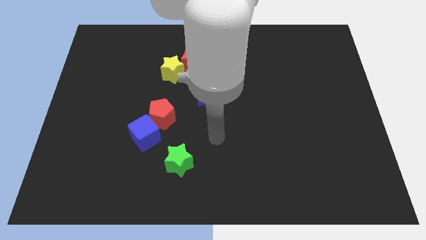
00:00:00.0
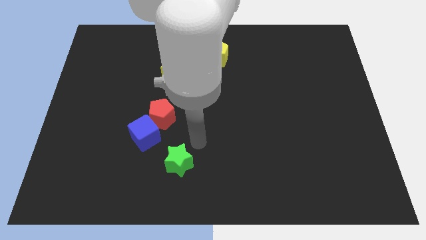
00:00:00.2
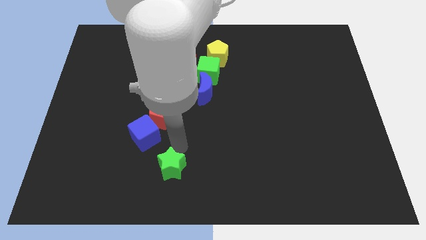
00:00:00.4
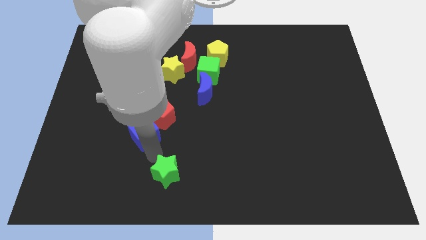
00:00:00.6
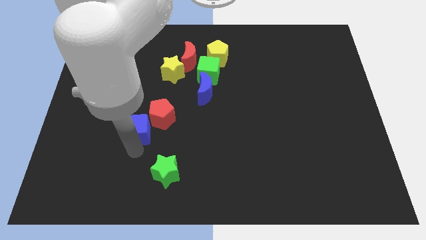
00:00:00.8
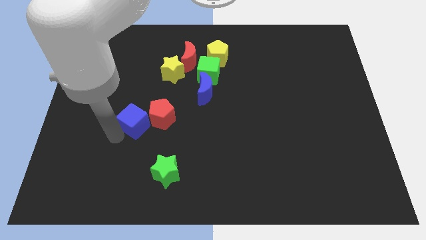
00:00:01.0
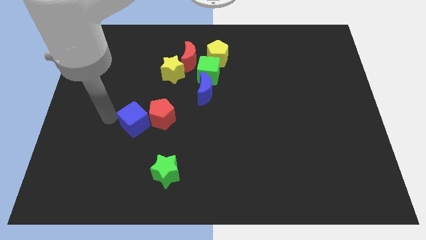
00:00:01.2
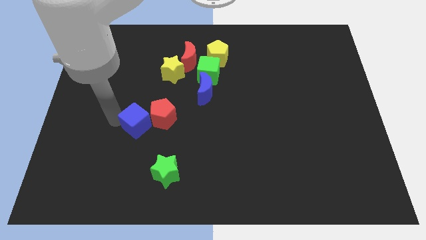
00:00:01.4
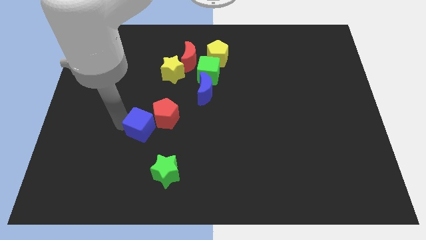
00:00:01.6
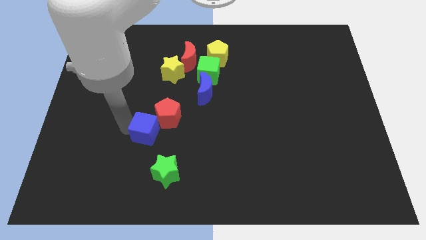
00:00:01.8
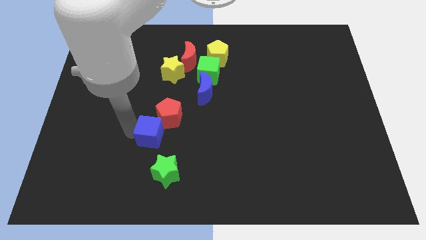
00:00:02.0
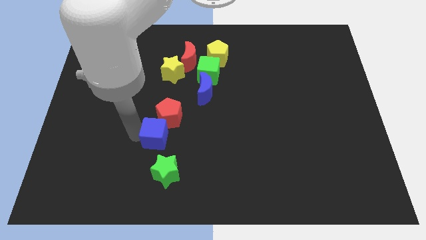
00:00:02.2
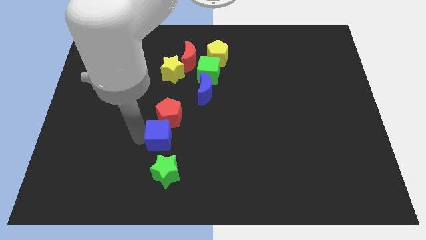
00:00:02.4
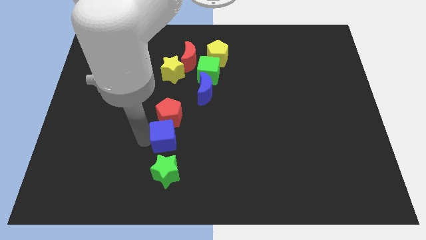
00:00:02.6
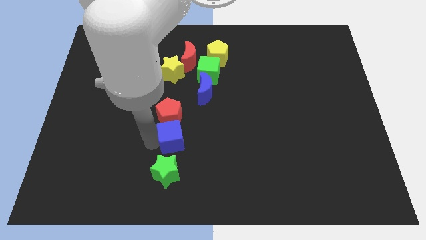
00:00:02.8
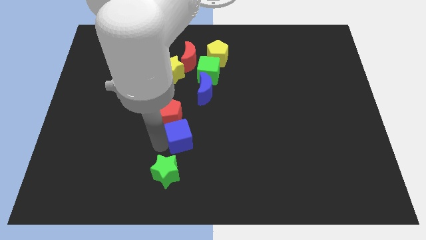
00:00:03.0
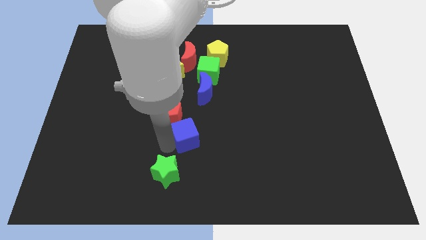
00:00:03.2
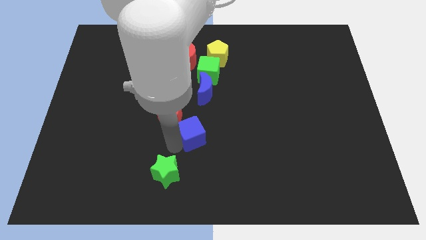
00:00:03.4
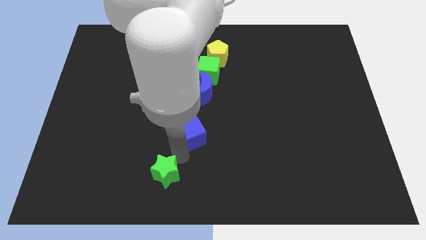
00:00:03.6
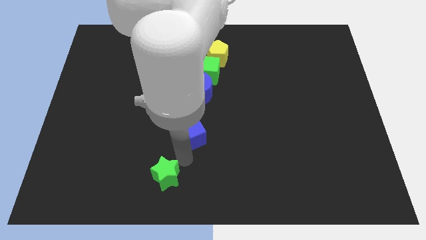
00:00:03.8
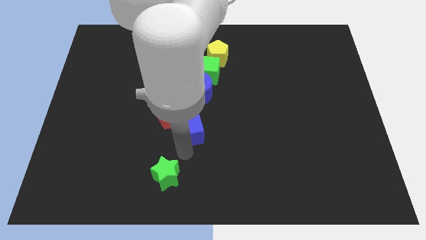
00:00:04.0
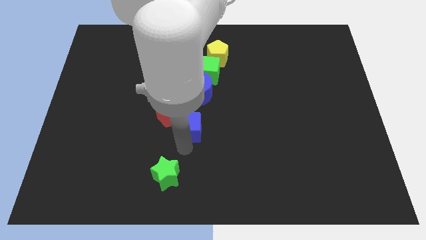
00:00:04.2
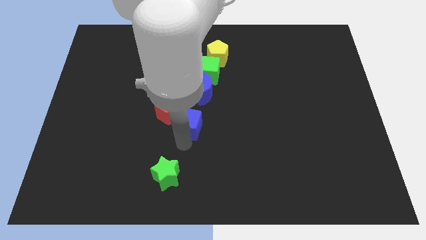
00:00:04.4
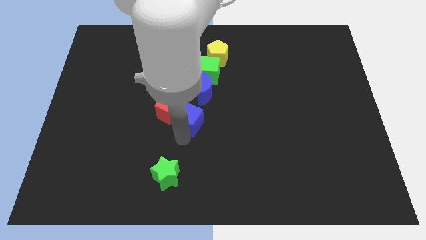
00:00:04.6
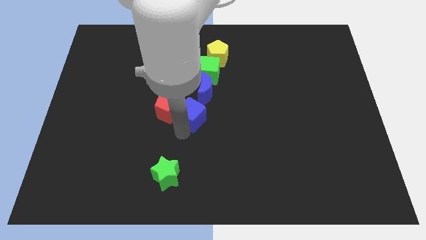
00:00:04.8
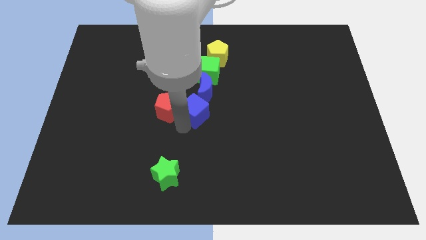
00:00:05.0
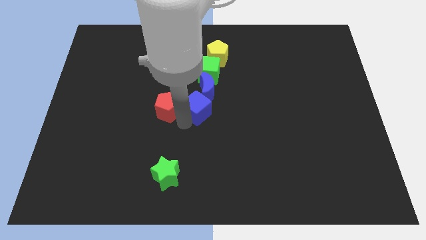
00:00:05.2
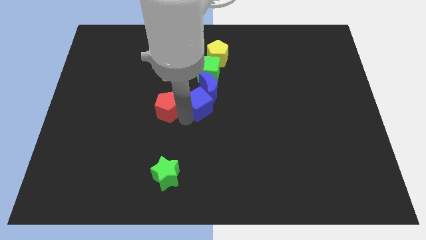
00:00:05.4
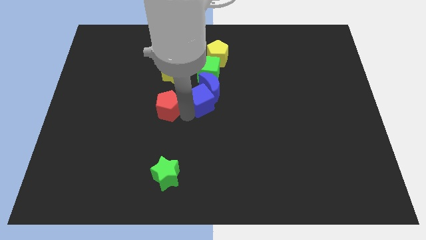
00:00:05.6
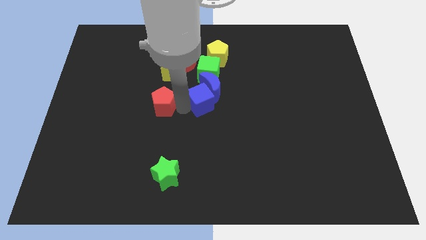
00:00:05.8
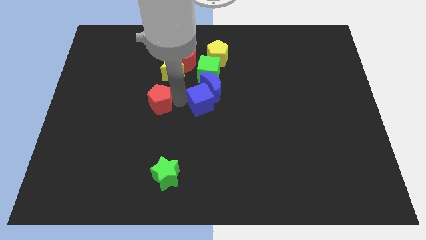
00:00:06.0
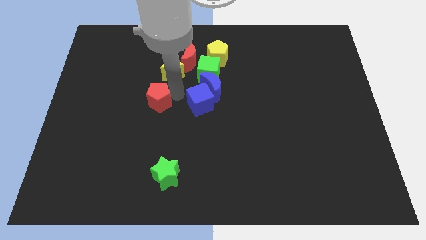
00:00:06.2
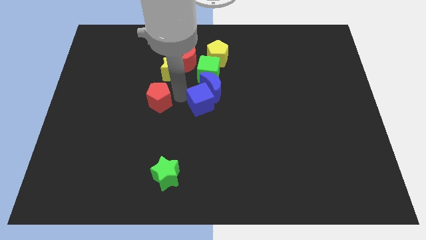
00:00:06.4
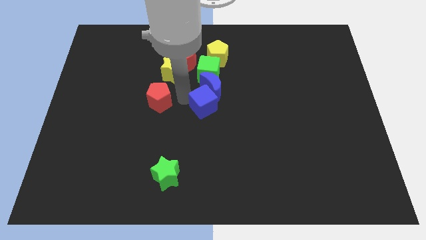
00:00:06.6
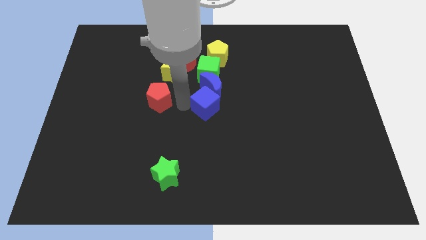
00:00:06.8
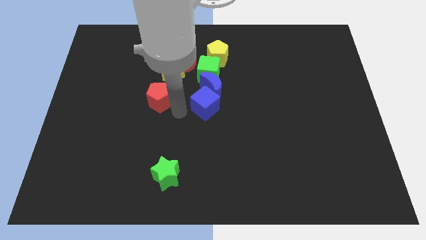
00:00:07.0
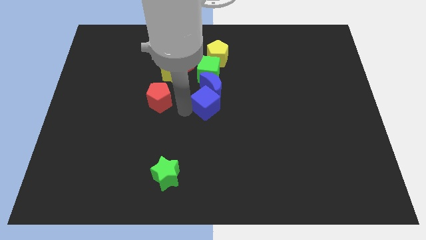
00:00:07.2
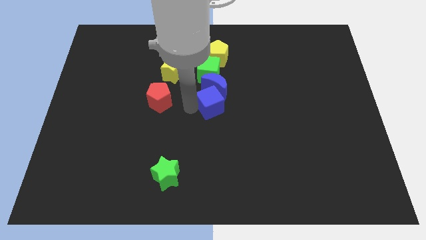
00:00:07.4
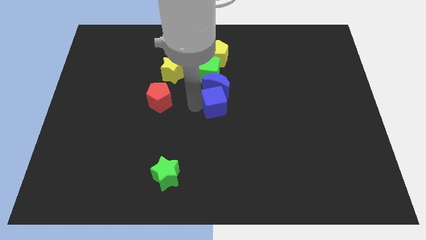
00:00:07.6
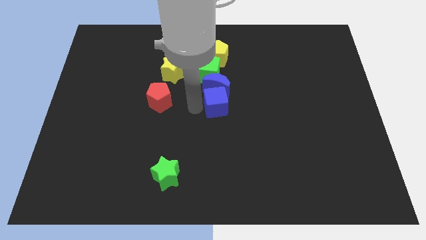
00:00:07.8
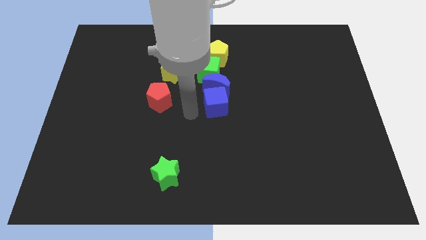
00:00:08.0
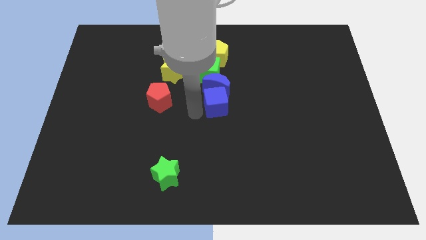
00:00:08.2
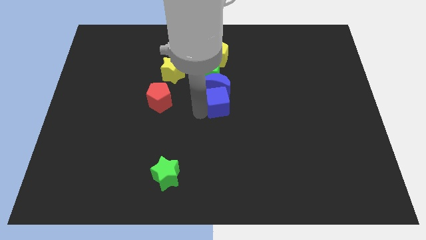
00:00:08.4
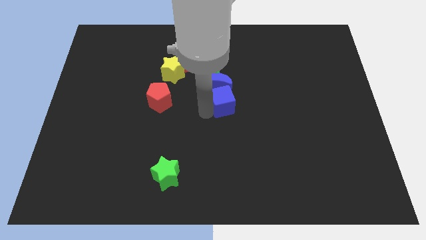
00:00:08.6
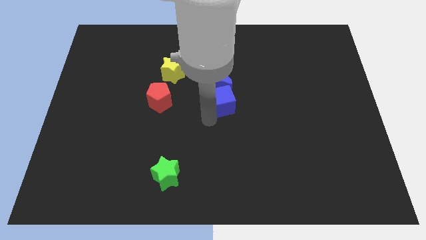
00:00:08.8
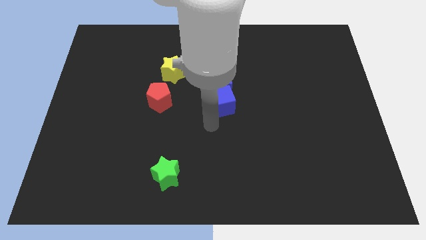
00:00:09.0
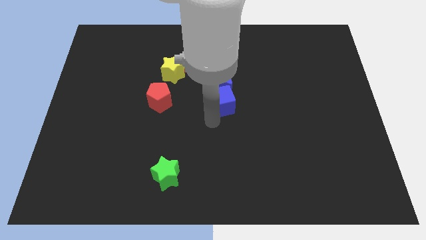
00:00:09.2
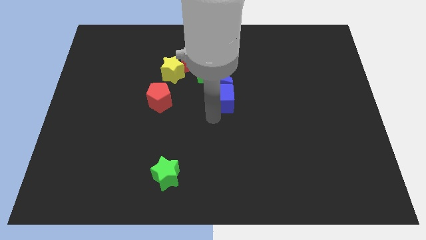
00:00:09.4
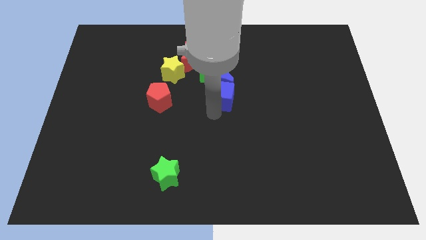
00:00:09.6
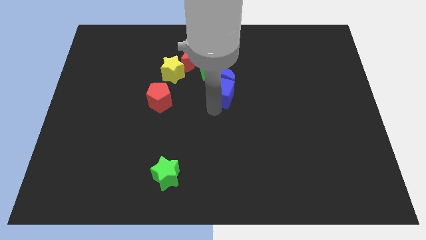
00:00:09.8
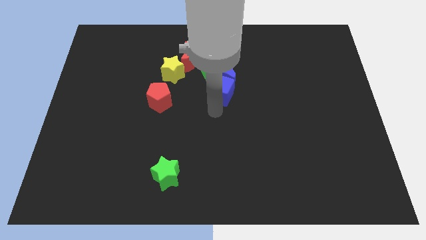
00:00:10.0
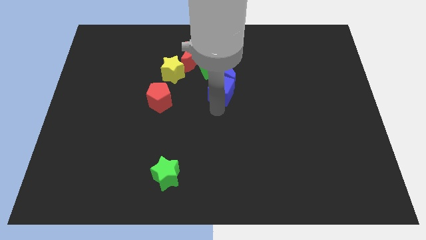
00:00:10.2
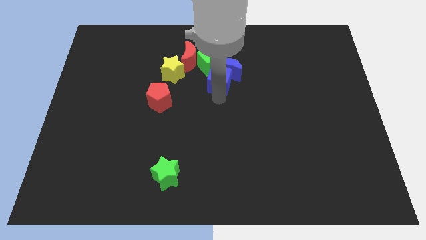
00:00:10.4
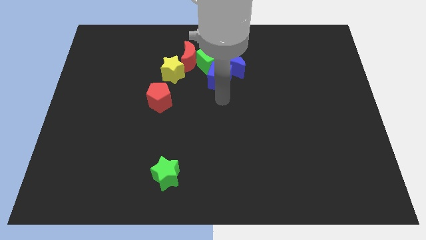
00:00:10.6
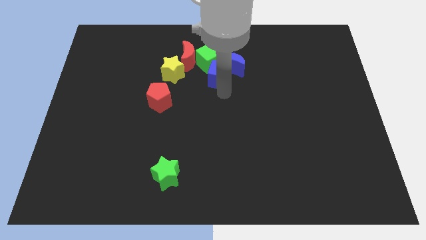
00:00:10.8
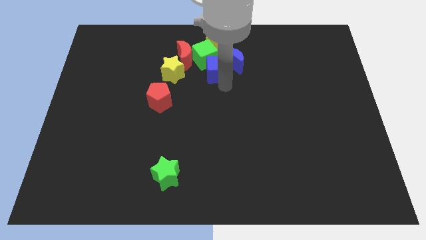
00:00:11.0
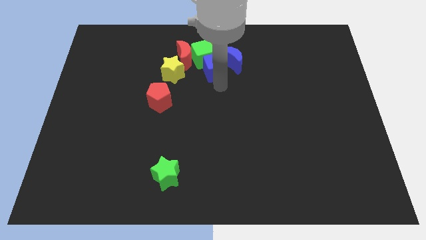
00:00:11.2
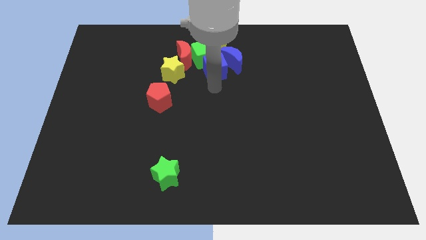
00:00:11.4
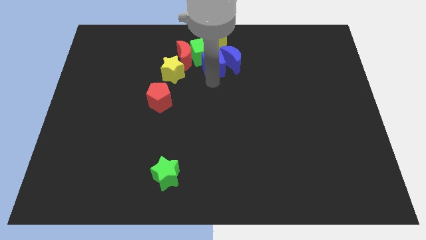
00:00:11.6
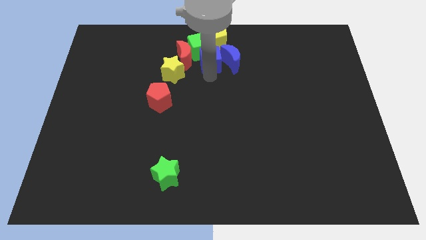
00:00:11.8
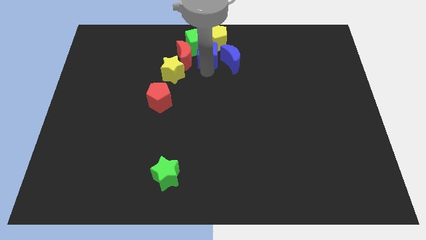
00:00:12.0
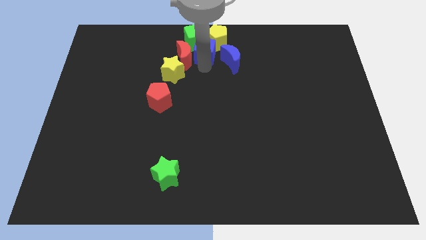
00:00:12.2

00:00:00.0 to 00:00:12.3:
put the blue cube to the yellow pentagon
